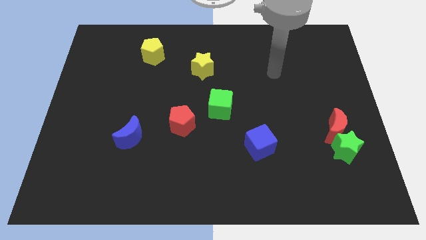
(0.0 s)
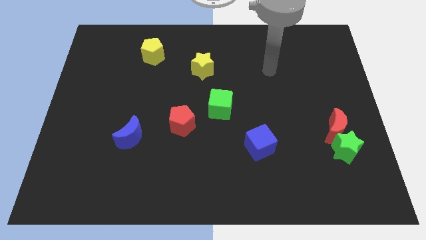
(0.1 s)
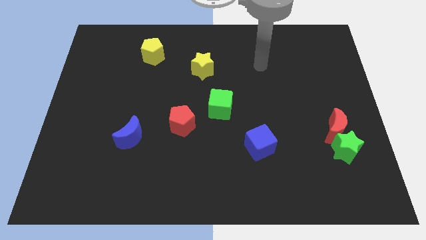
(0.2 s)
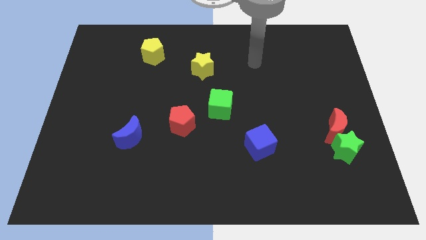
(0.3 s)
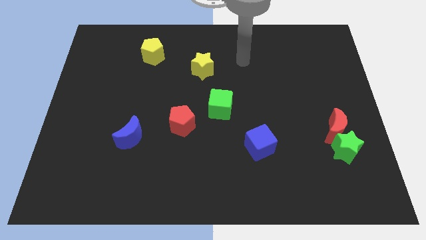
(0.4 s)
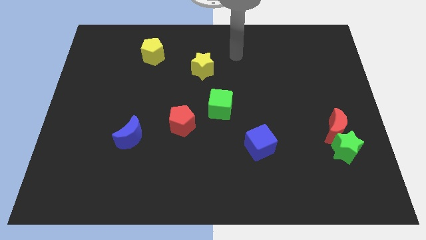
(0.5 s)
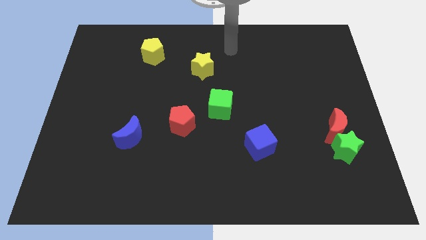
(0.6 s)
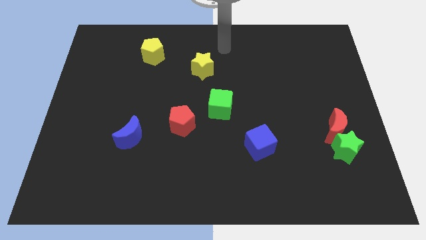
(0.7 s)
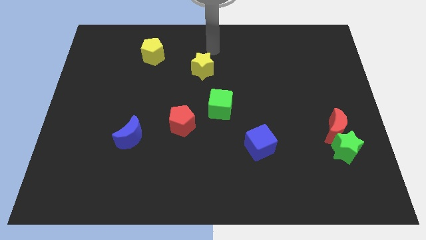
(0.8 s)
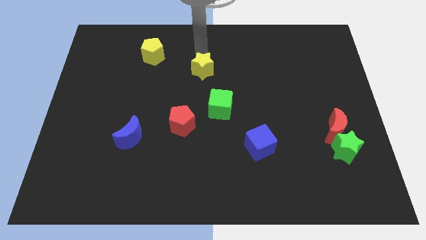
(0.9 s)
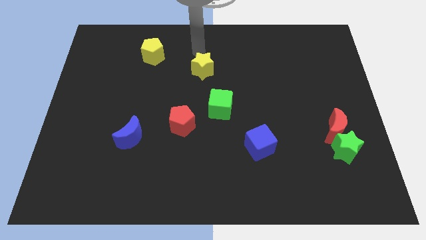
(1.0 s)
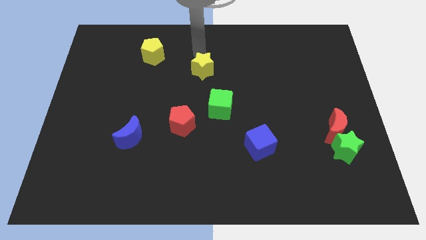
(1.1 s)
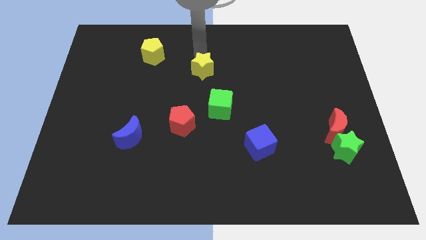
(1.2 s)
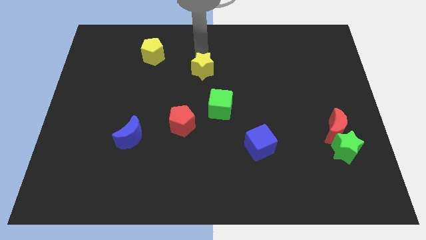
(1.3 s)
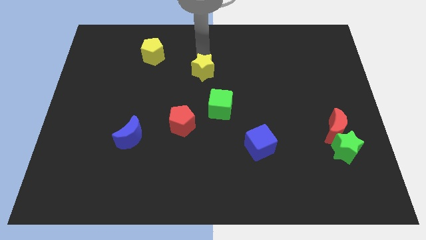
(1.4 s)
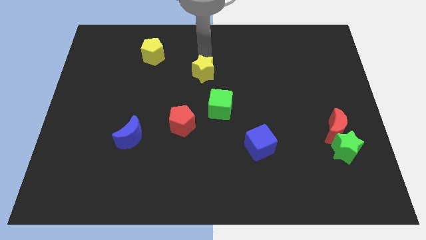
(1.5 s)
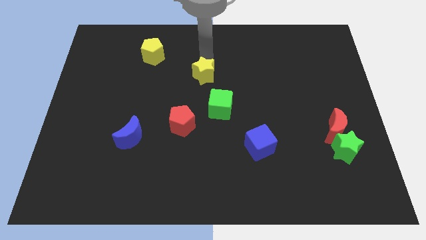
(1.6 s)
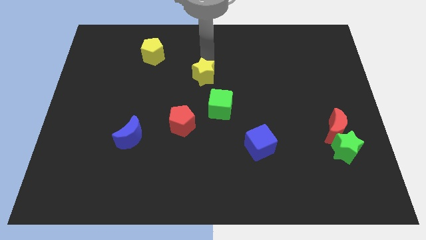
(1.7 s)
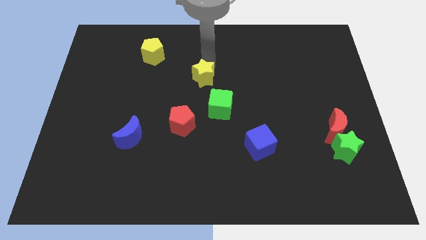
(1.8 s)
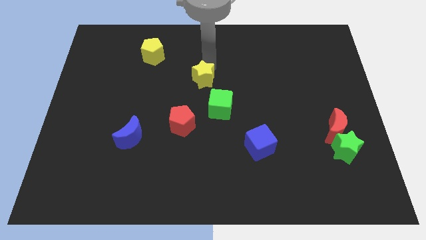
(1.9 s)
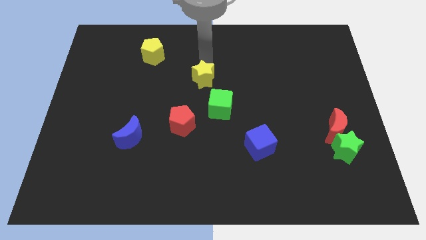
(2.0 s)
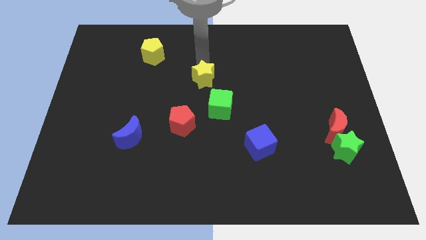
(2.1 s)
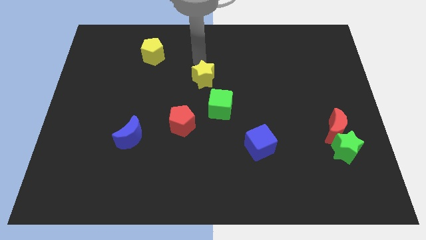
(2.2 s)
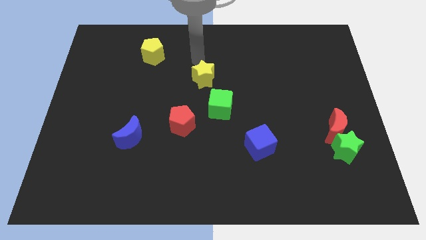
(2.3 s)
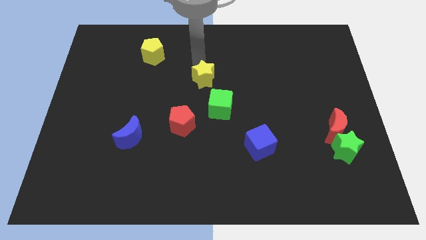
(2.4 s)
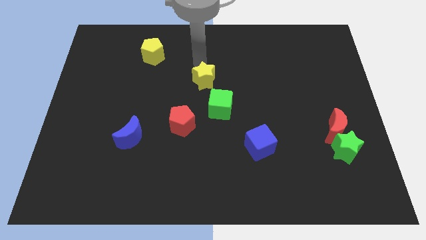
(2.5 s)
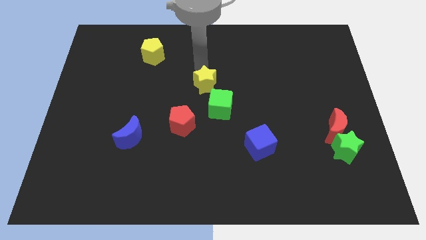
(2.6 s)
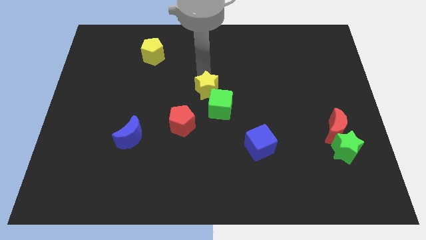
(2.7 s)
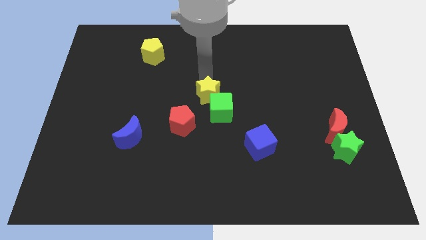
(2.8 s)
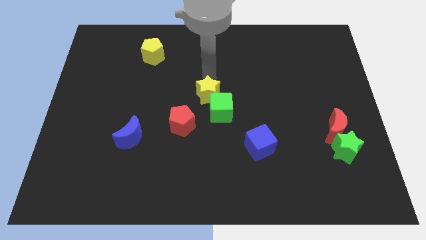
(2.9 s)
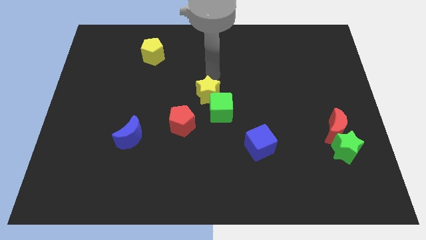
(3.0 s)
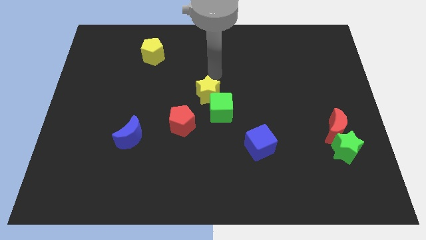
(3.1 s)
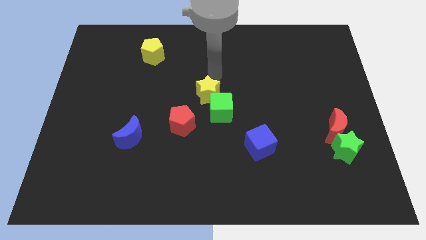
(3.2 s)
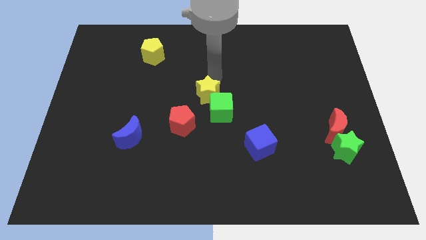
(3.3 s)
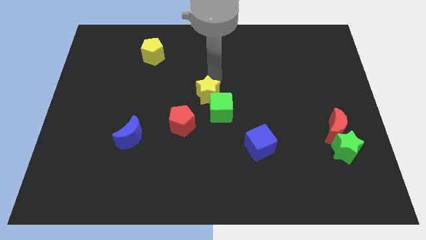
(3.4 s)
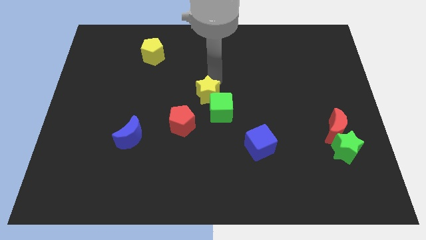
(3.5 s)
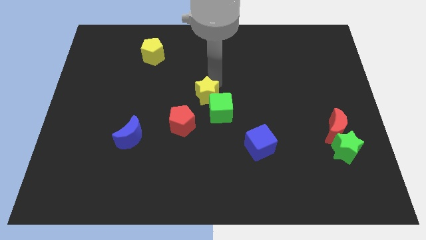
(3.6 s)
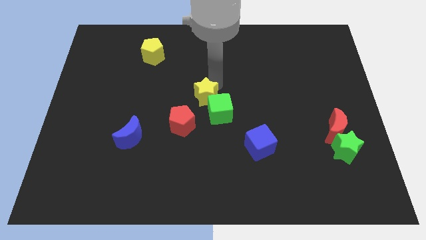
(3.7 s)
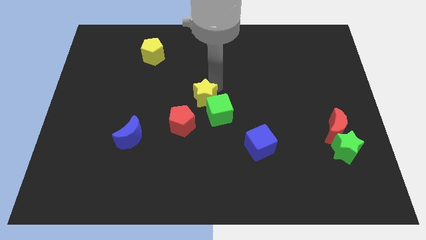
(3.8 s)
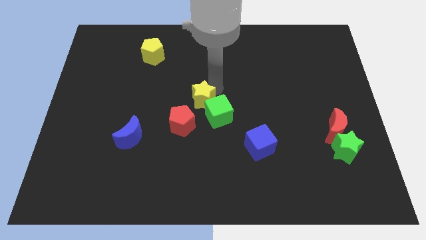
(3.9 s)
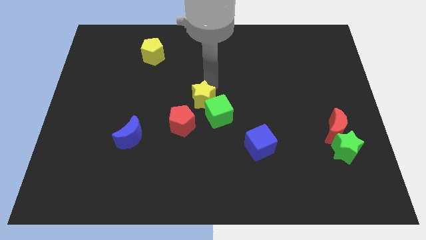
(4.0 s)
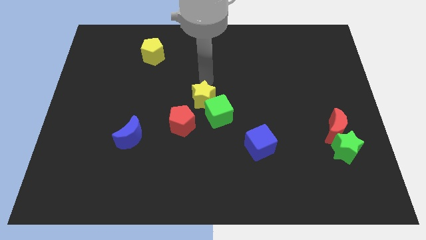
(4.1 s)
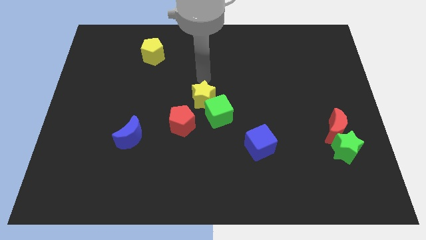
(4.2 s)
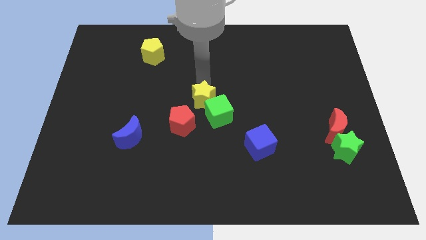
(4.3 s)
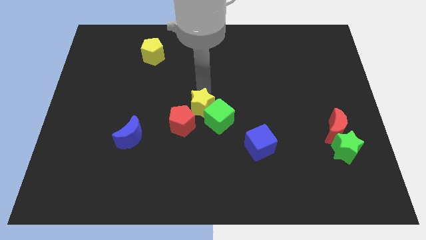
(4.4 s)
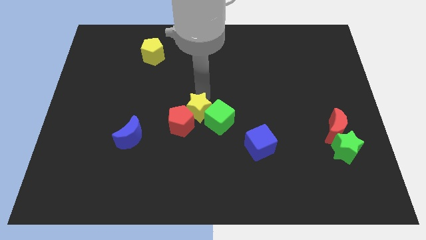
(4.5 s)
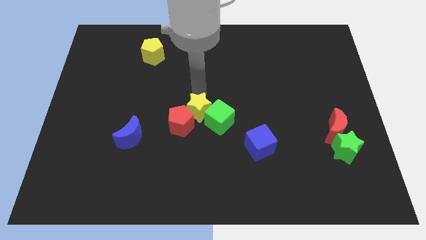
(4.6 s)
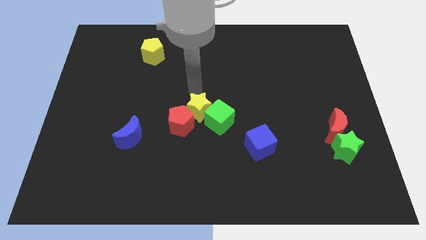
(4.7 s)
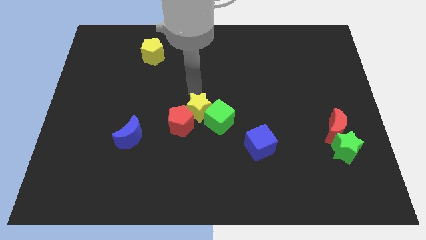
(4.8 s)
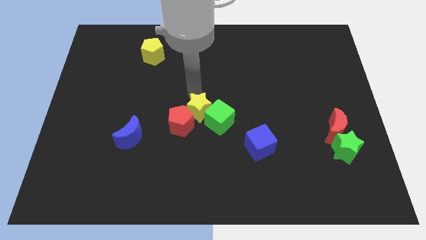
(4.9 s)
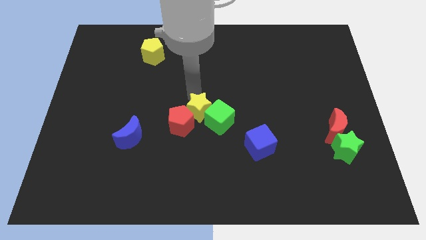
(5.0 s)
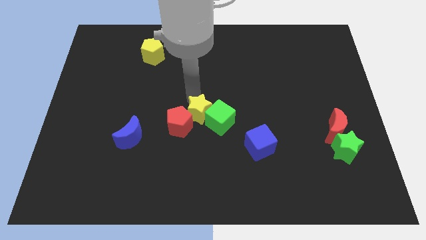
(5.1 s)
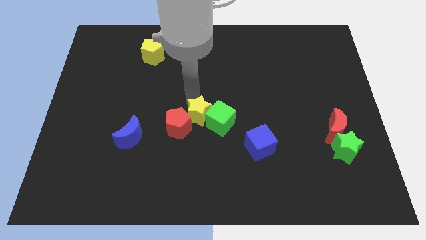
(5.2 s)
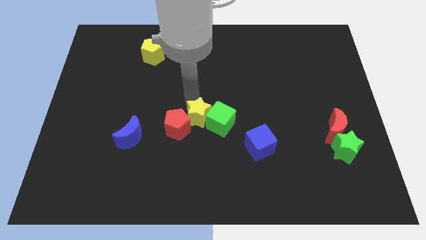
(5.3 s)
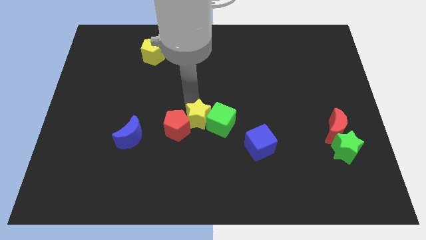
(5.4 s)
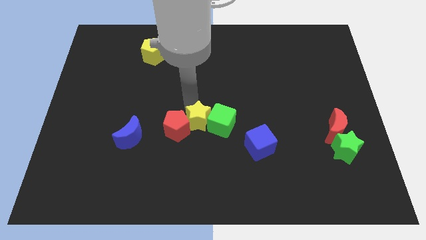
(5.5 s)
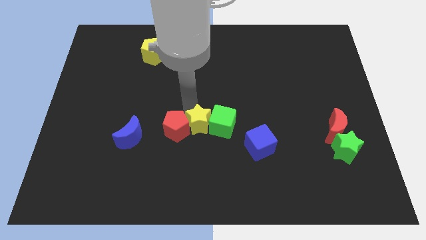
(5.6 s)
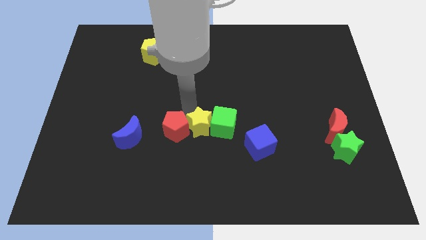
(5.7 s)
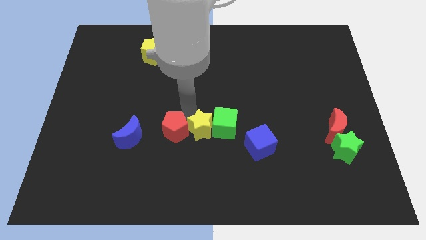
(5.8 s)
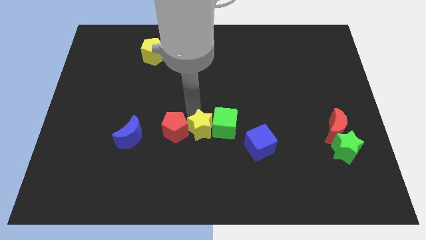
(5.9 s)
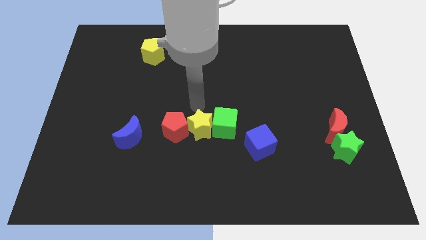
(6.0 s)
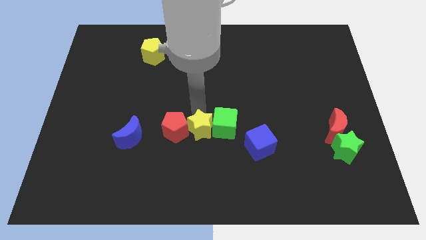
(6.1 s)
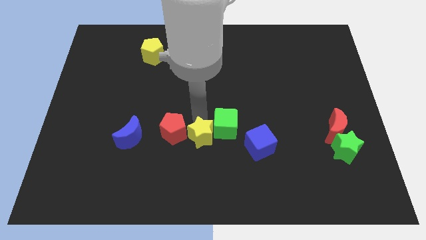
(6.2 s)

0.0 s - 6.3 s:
move the yellow star down

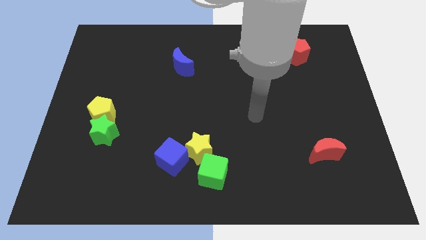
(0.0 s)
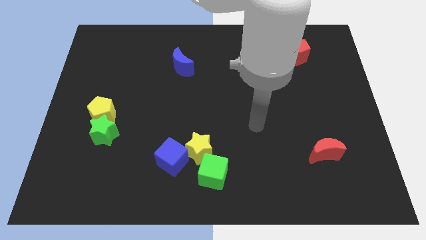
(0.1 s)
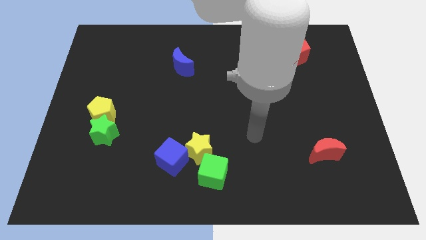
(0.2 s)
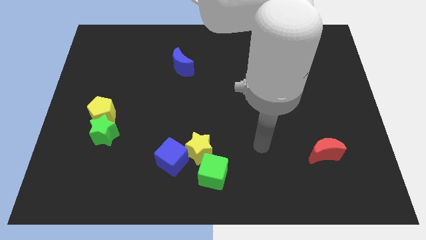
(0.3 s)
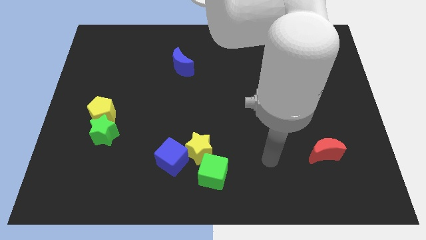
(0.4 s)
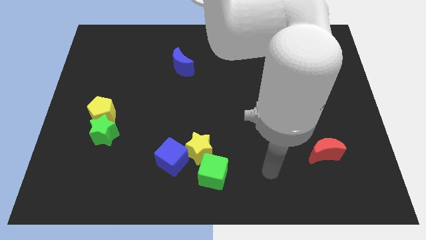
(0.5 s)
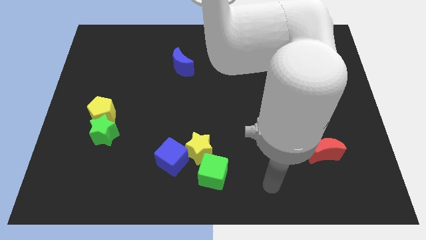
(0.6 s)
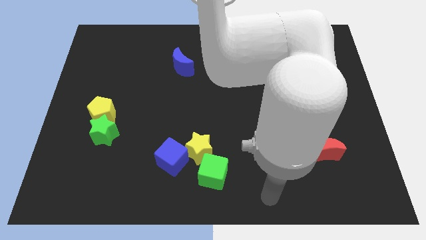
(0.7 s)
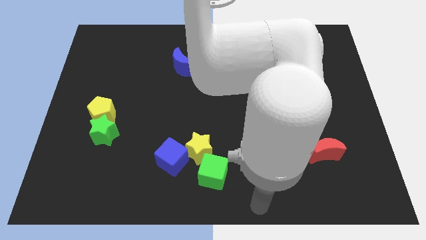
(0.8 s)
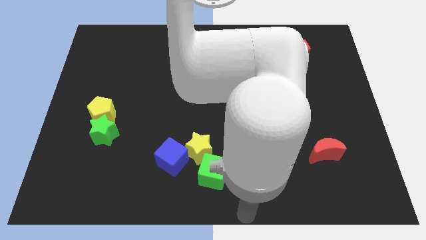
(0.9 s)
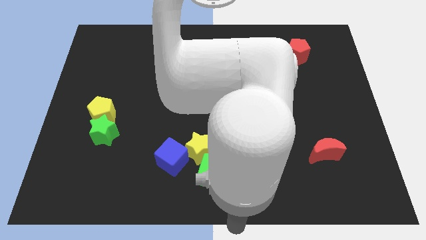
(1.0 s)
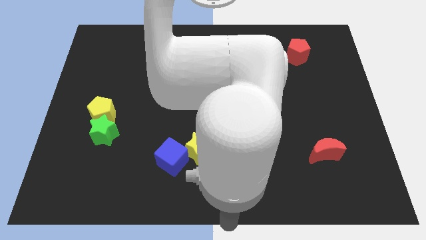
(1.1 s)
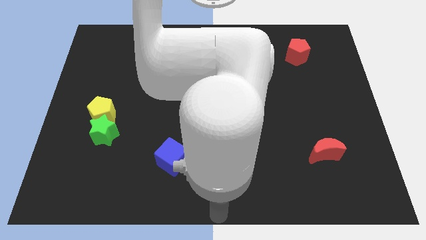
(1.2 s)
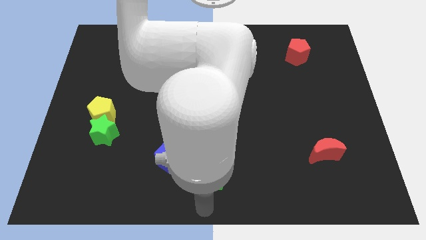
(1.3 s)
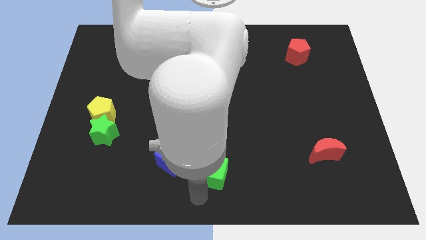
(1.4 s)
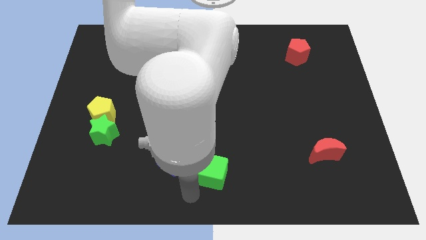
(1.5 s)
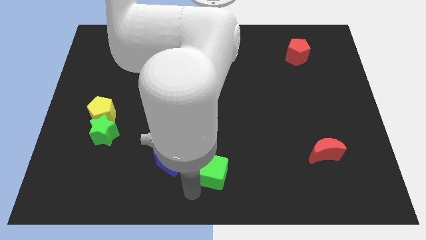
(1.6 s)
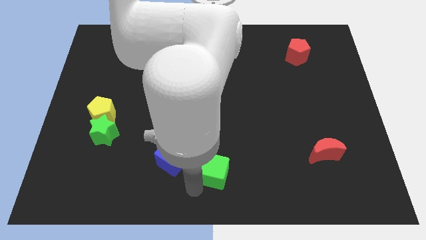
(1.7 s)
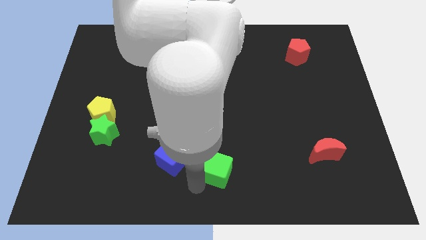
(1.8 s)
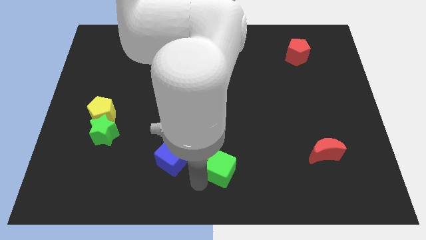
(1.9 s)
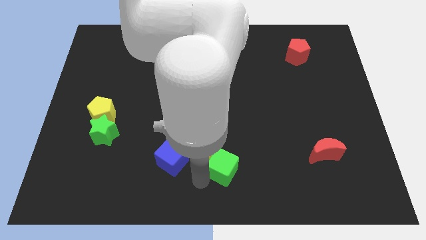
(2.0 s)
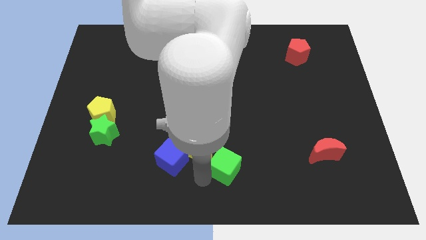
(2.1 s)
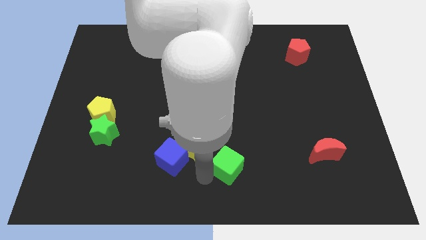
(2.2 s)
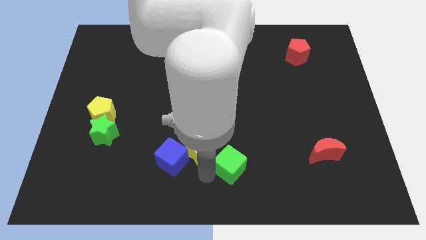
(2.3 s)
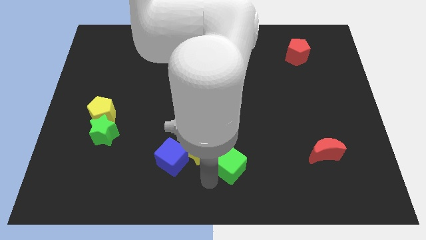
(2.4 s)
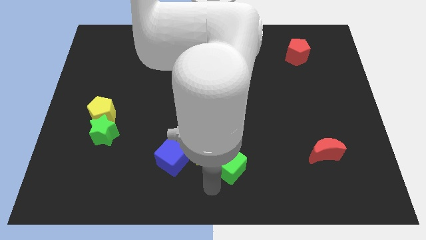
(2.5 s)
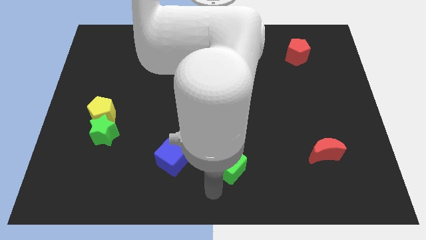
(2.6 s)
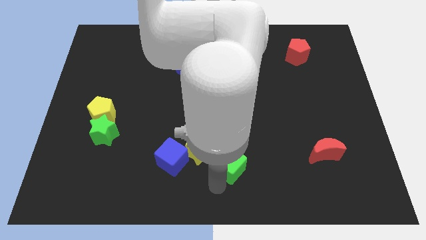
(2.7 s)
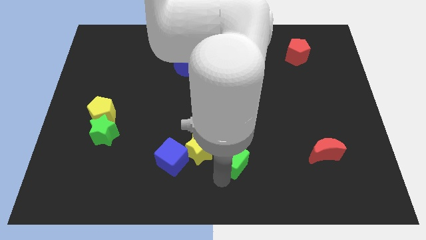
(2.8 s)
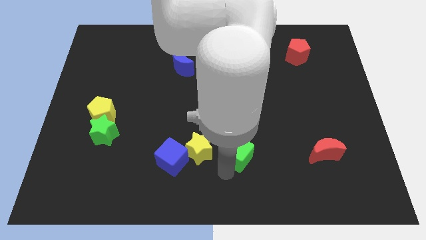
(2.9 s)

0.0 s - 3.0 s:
slightly move the green cube upwards and to the right
